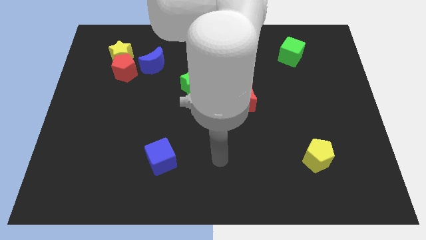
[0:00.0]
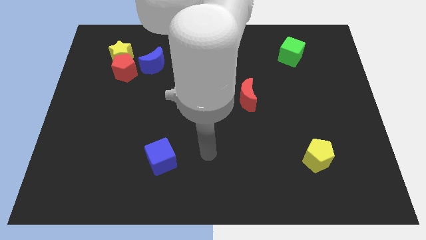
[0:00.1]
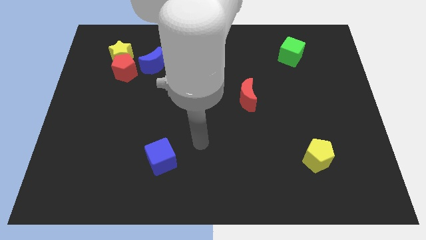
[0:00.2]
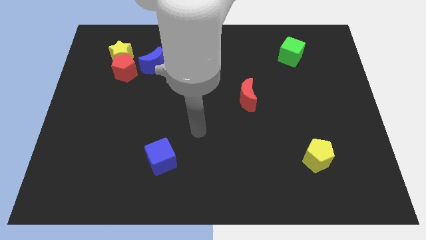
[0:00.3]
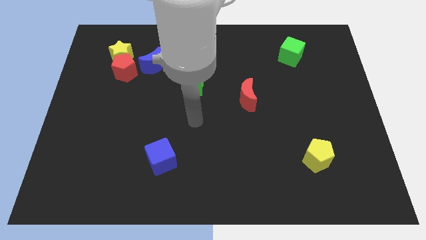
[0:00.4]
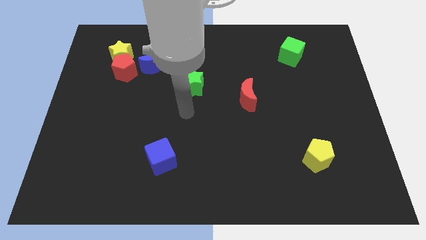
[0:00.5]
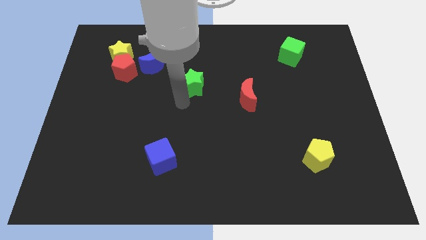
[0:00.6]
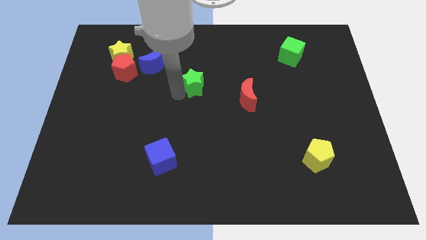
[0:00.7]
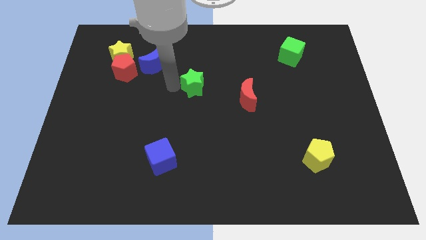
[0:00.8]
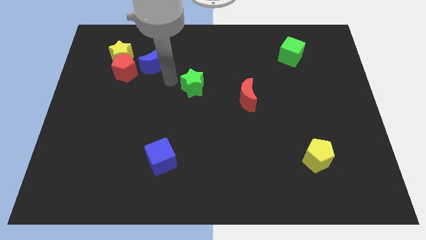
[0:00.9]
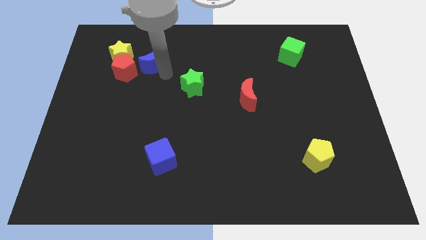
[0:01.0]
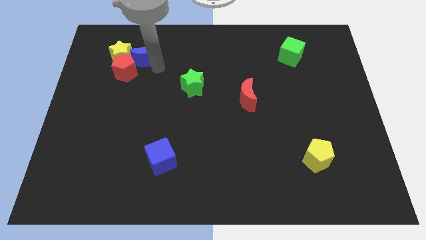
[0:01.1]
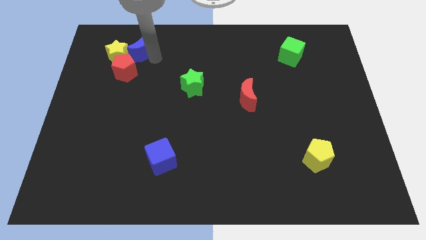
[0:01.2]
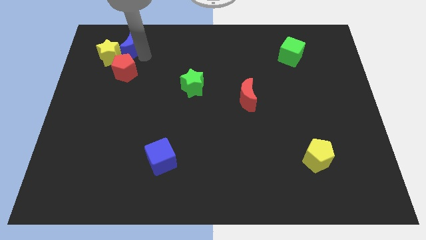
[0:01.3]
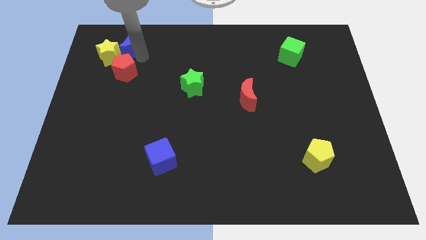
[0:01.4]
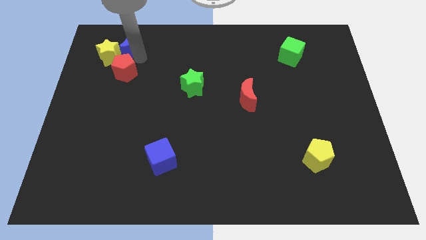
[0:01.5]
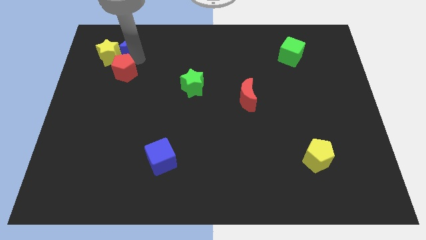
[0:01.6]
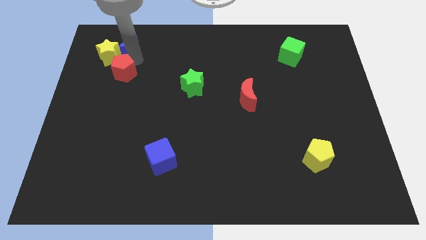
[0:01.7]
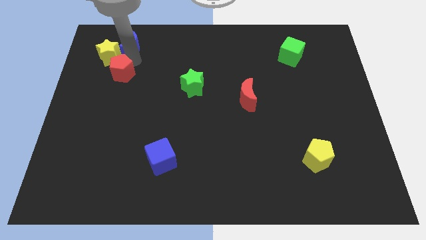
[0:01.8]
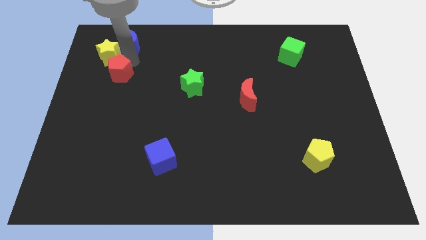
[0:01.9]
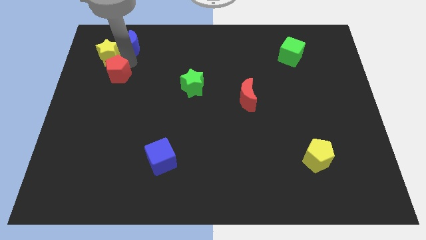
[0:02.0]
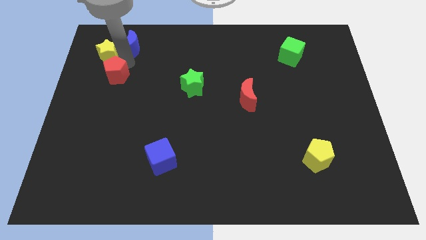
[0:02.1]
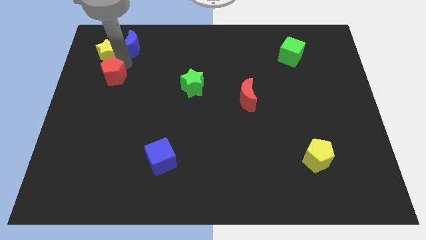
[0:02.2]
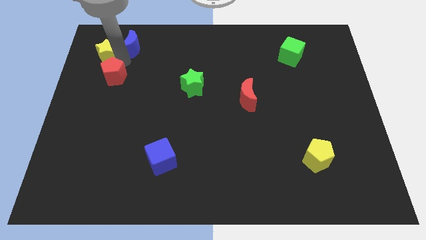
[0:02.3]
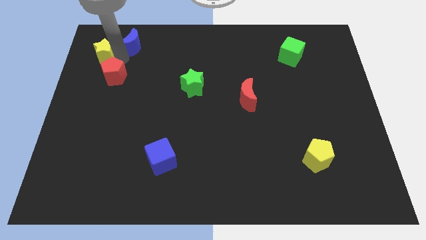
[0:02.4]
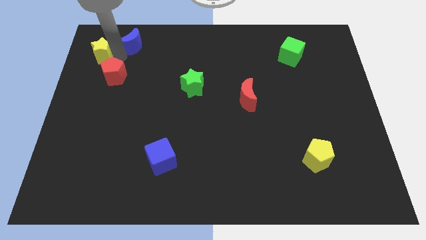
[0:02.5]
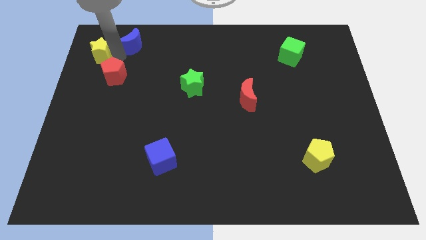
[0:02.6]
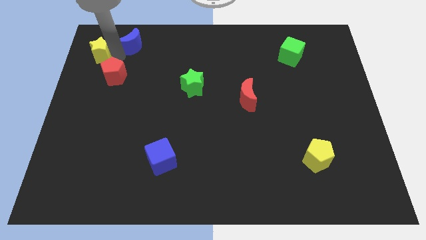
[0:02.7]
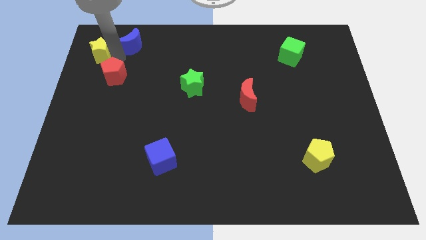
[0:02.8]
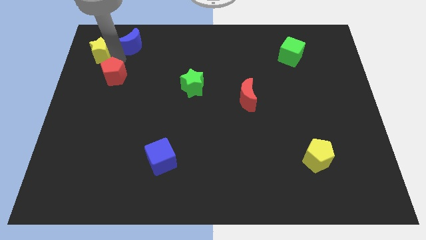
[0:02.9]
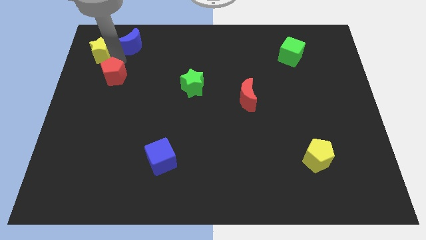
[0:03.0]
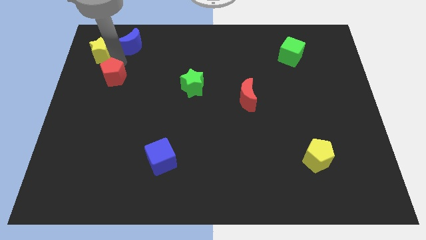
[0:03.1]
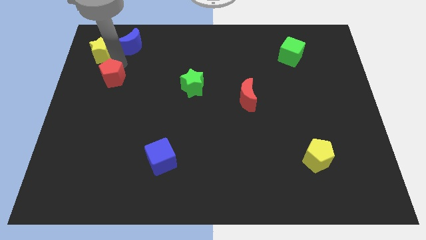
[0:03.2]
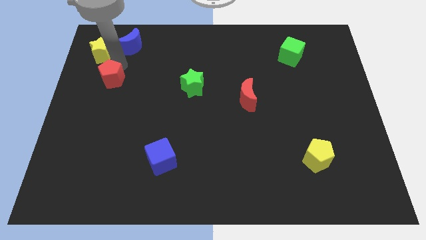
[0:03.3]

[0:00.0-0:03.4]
move the red pentagon away from the yellow star and blue moon

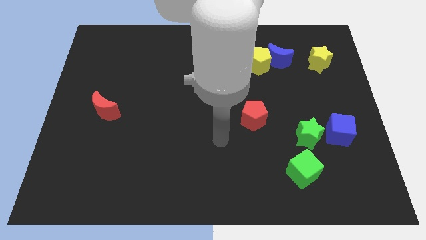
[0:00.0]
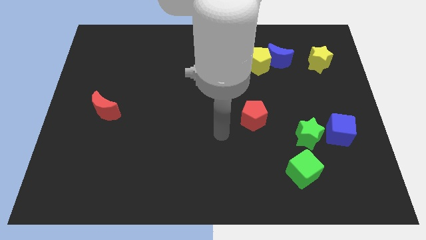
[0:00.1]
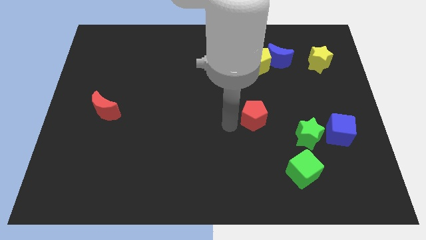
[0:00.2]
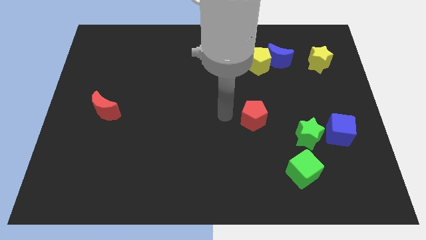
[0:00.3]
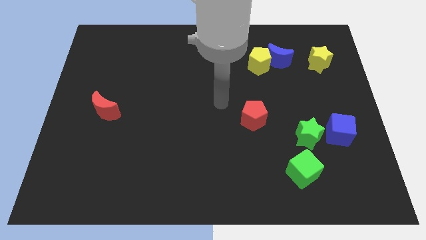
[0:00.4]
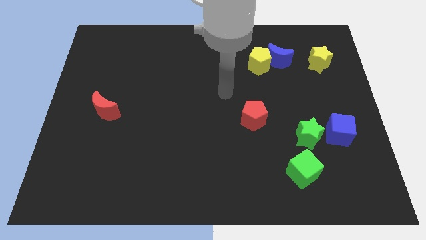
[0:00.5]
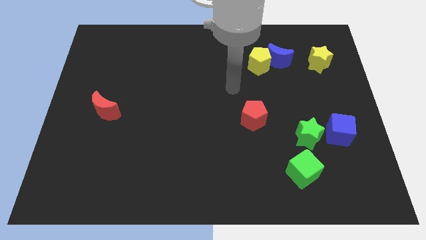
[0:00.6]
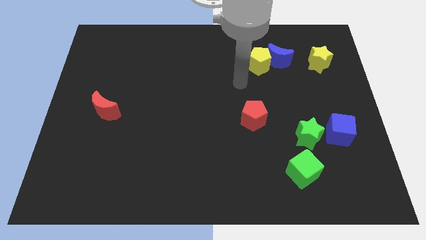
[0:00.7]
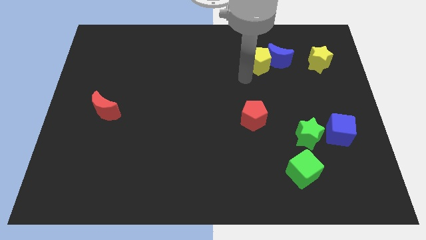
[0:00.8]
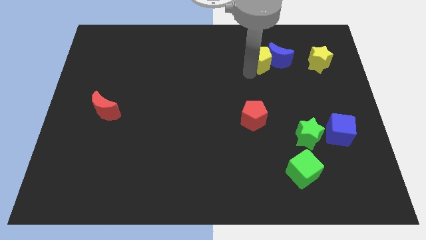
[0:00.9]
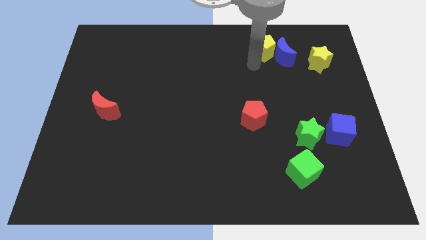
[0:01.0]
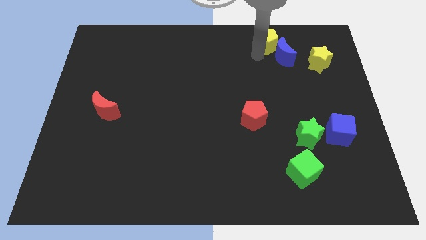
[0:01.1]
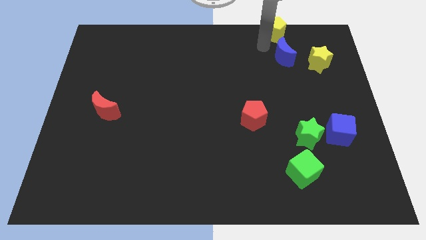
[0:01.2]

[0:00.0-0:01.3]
separate the blue moon from the yellow pentagon

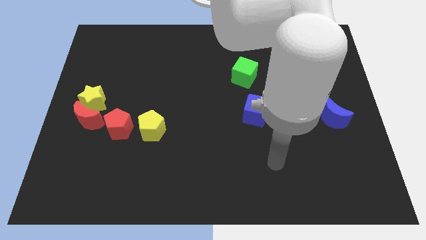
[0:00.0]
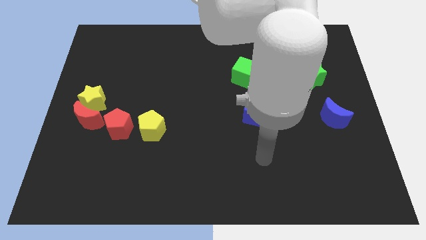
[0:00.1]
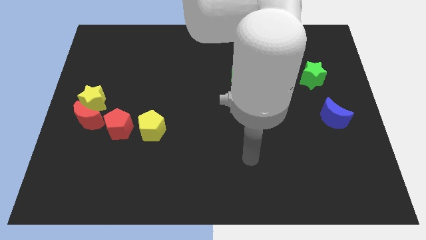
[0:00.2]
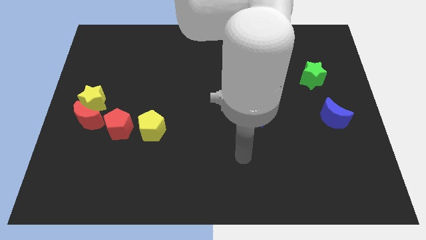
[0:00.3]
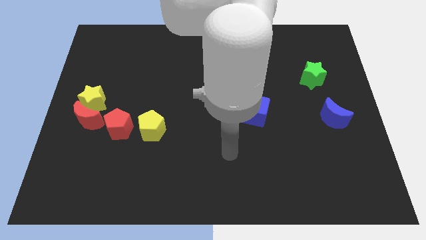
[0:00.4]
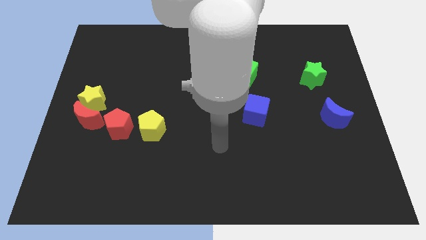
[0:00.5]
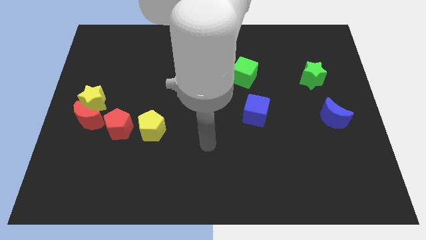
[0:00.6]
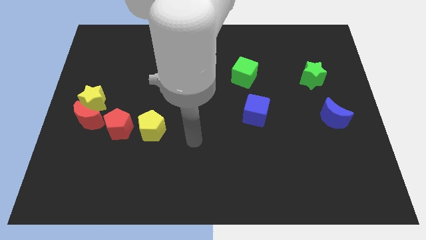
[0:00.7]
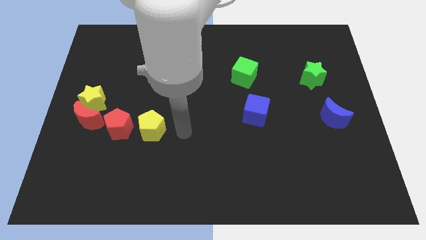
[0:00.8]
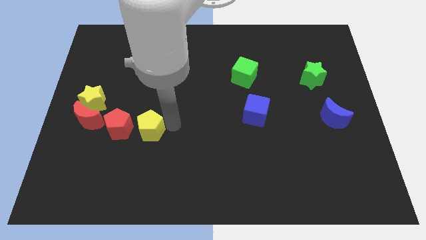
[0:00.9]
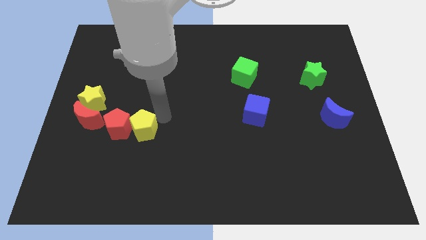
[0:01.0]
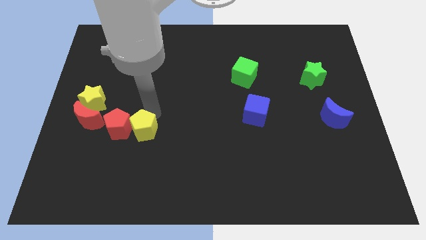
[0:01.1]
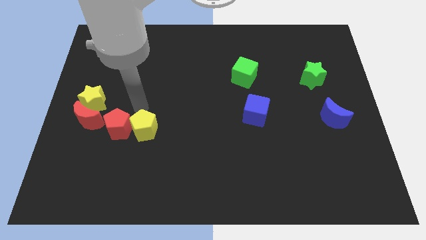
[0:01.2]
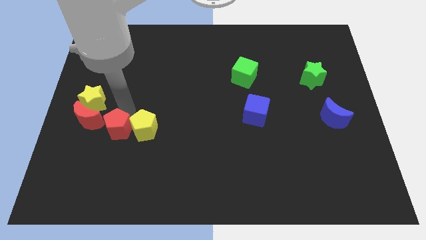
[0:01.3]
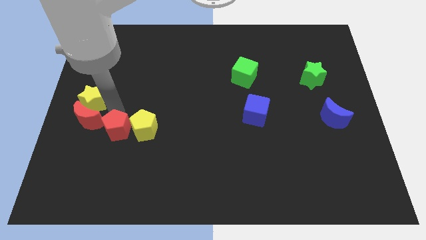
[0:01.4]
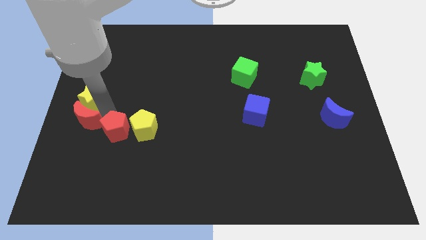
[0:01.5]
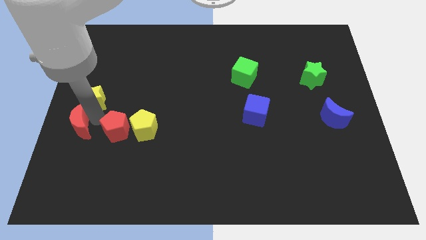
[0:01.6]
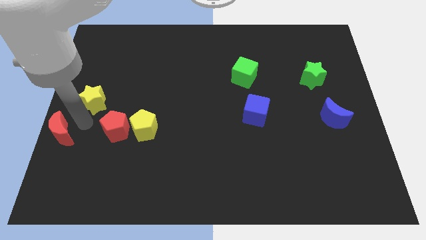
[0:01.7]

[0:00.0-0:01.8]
separate the yellow star from the red moon

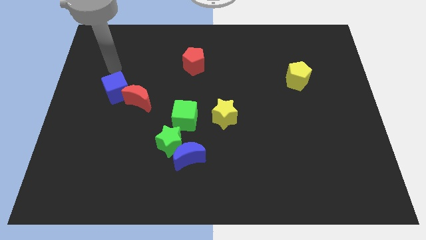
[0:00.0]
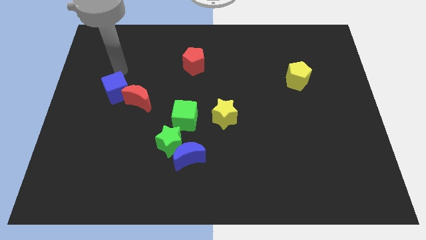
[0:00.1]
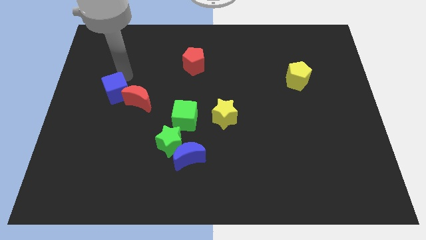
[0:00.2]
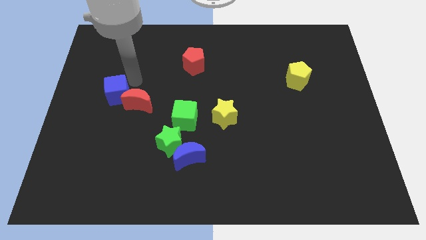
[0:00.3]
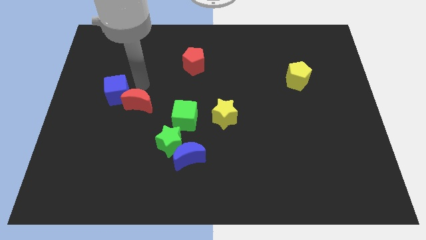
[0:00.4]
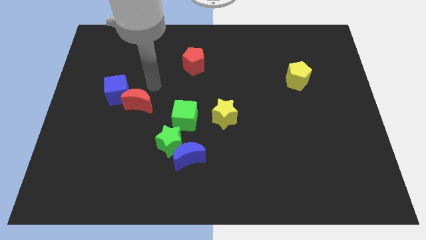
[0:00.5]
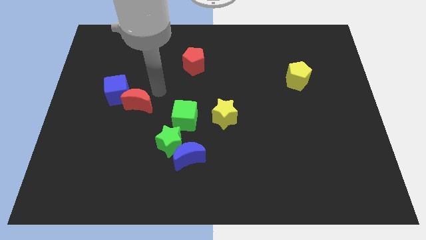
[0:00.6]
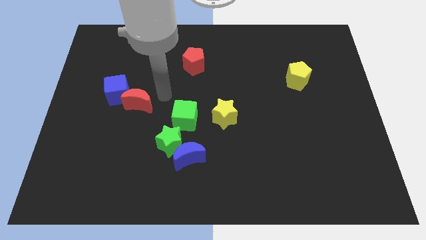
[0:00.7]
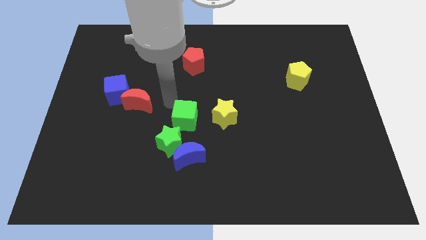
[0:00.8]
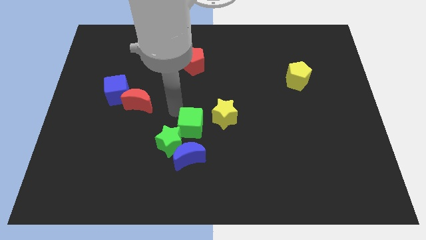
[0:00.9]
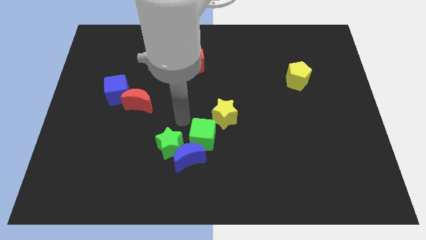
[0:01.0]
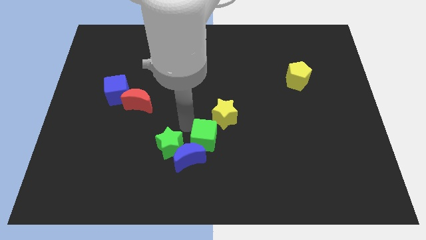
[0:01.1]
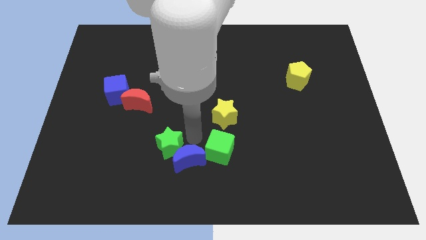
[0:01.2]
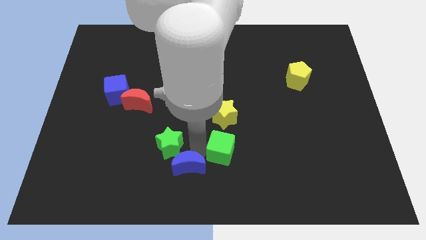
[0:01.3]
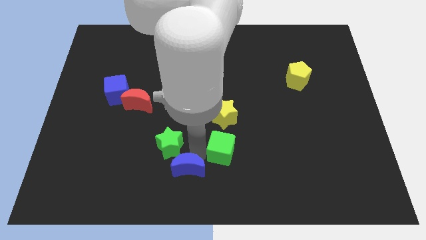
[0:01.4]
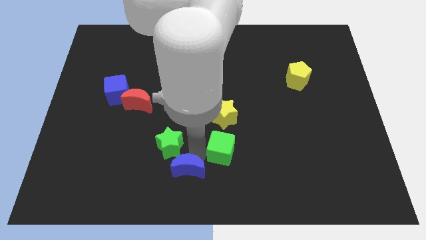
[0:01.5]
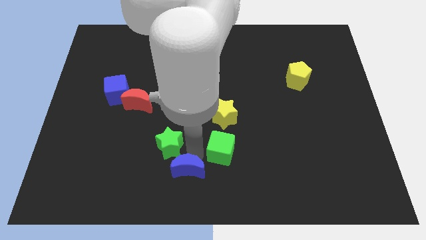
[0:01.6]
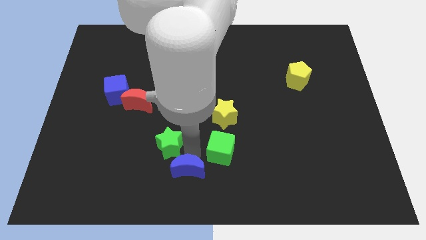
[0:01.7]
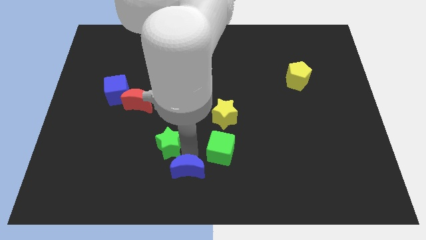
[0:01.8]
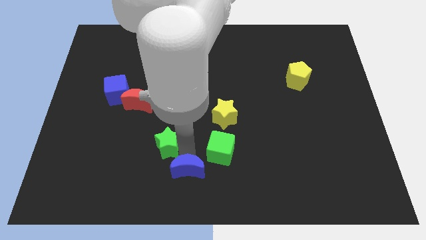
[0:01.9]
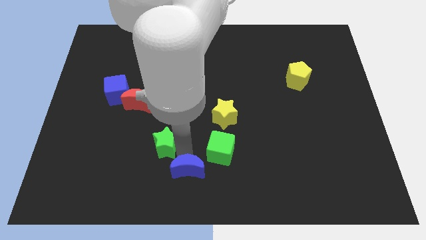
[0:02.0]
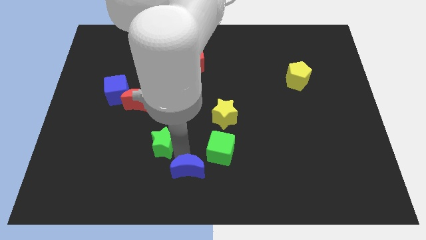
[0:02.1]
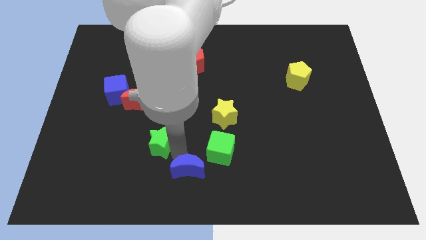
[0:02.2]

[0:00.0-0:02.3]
move the green star away from the blue moon and green cube

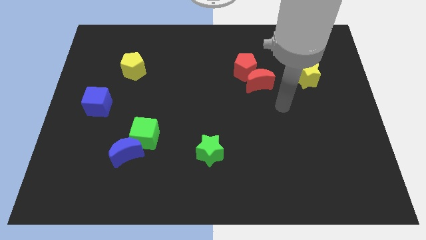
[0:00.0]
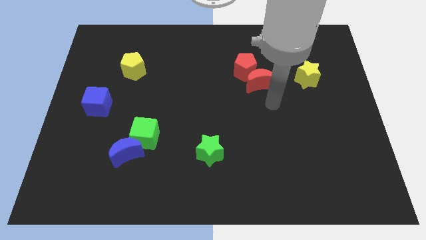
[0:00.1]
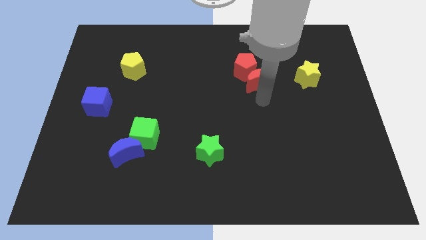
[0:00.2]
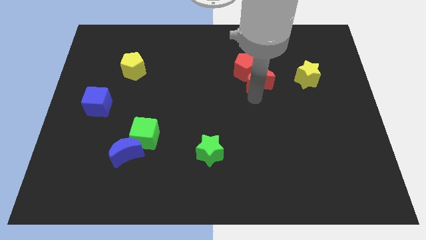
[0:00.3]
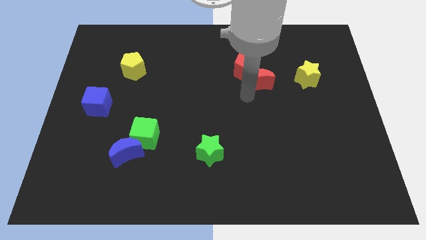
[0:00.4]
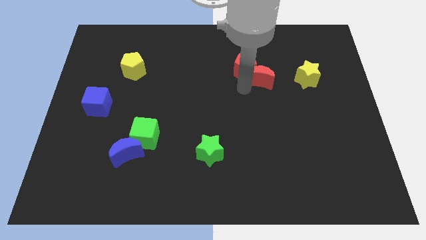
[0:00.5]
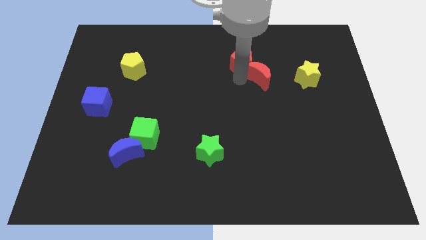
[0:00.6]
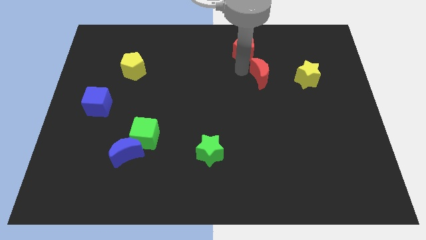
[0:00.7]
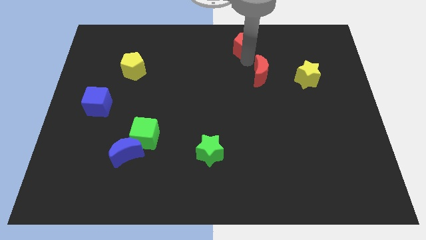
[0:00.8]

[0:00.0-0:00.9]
separate the red moon from the red pentagon
